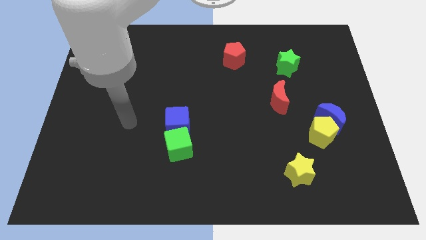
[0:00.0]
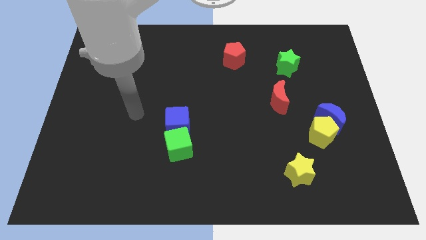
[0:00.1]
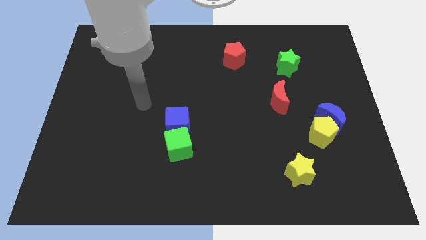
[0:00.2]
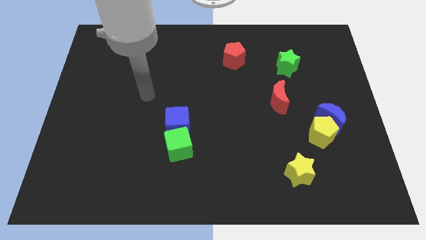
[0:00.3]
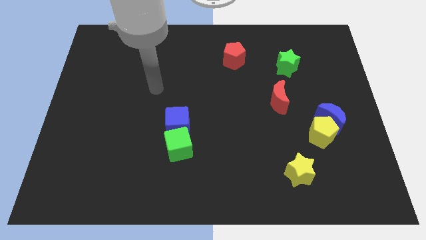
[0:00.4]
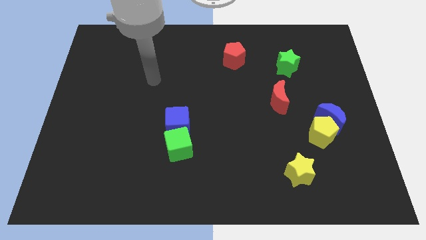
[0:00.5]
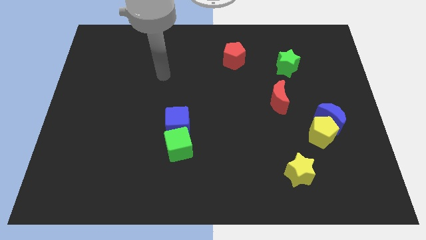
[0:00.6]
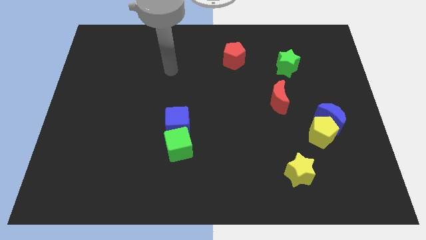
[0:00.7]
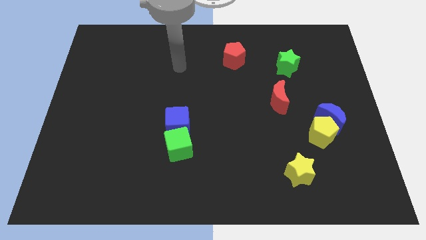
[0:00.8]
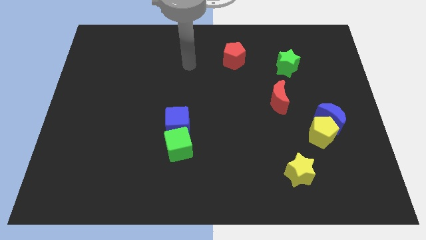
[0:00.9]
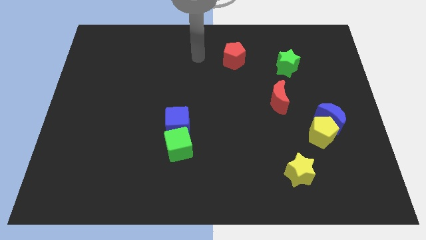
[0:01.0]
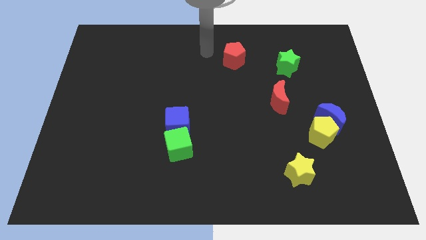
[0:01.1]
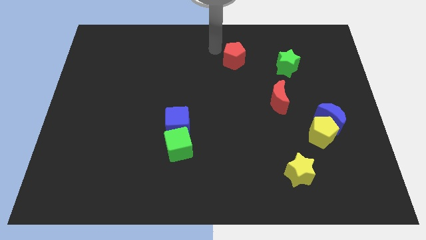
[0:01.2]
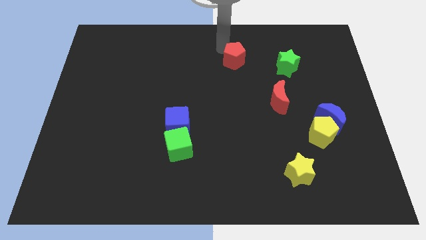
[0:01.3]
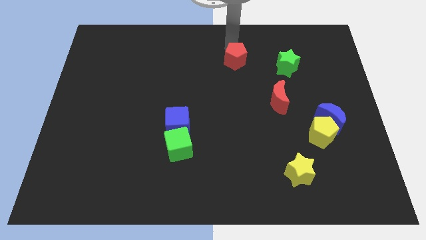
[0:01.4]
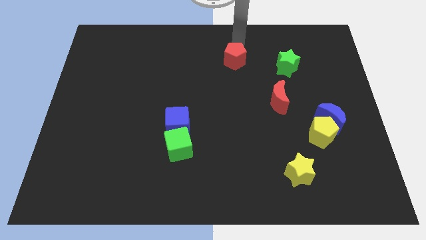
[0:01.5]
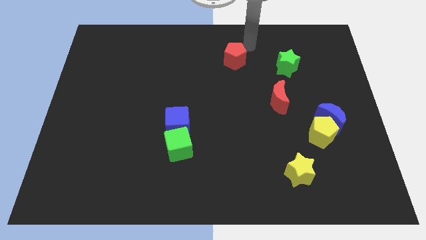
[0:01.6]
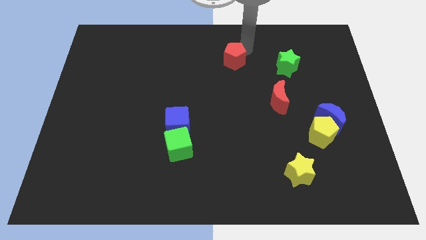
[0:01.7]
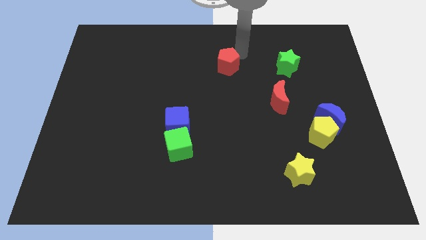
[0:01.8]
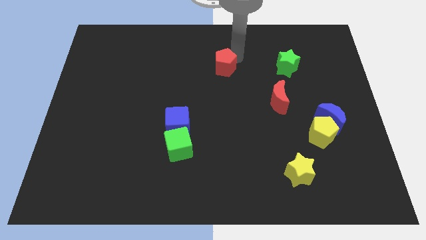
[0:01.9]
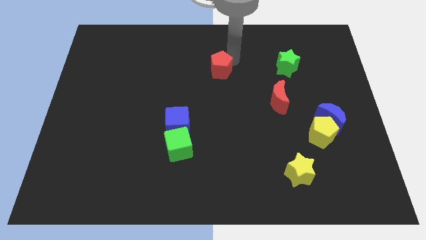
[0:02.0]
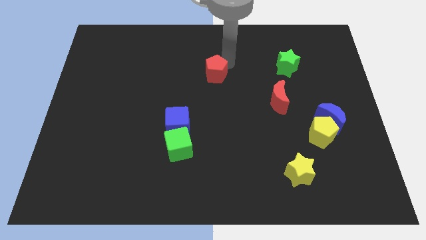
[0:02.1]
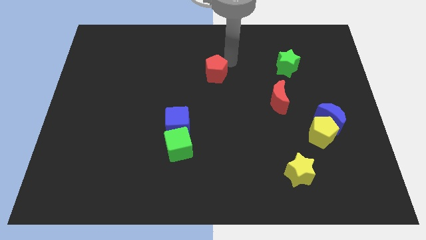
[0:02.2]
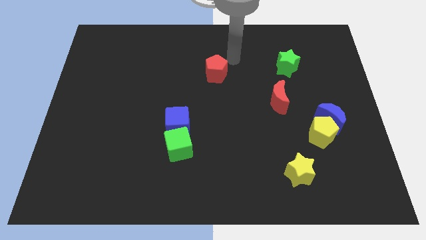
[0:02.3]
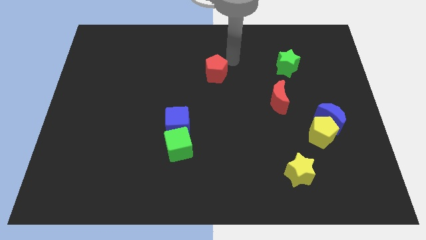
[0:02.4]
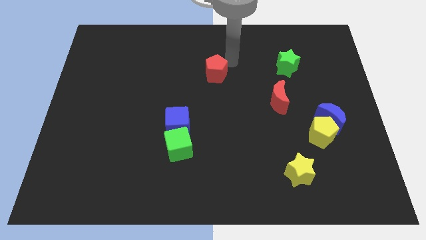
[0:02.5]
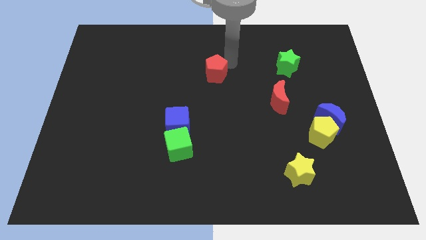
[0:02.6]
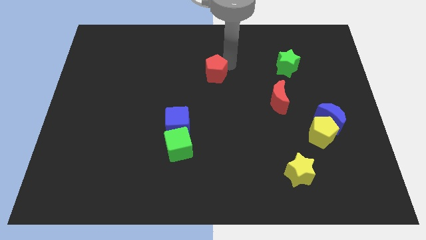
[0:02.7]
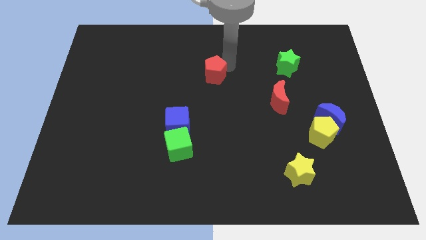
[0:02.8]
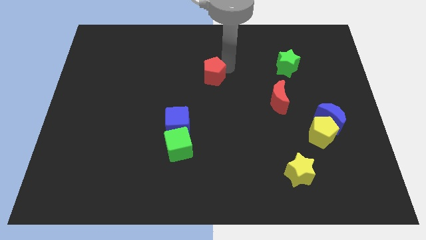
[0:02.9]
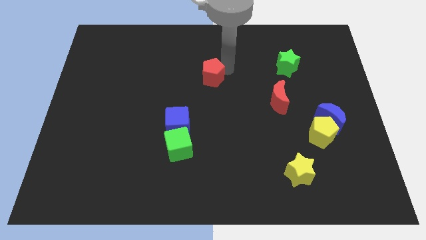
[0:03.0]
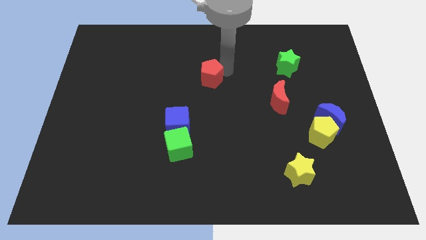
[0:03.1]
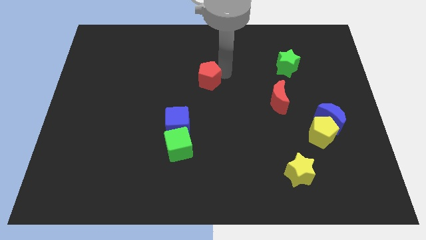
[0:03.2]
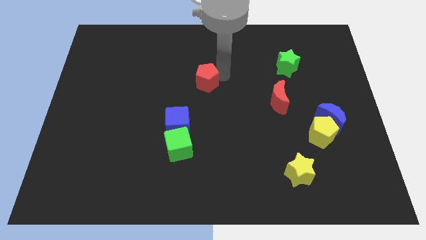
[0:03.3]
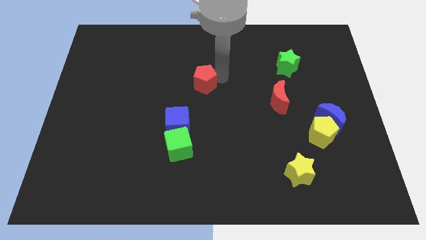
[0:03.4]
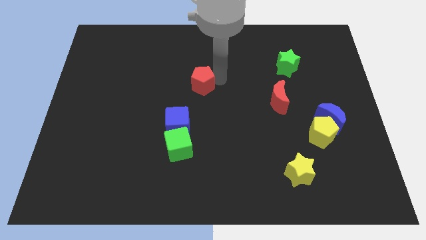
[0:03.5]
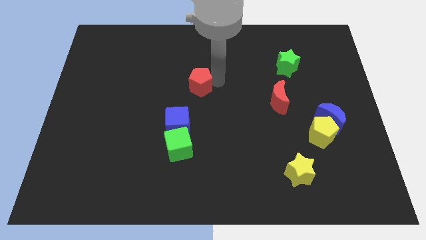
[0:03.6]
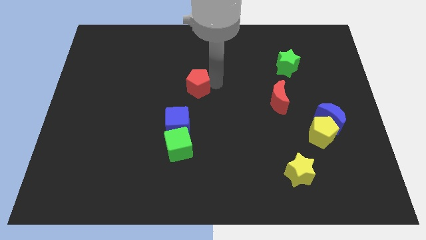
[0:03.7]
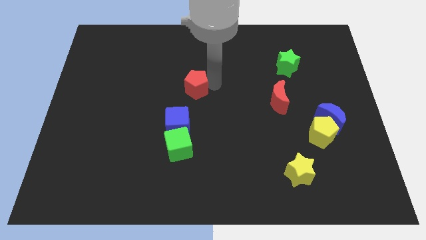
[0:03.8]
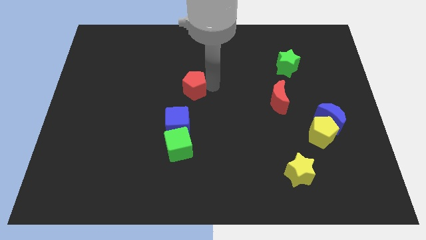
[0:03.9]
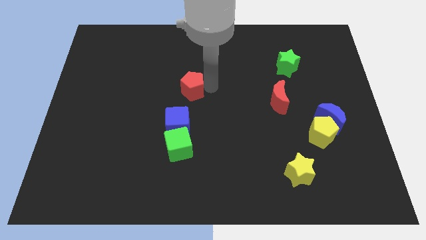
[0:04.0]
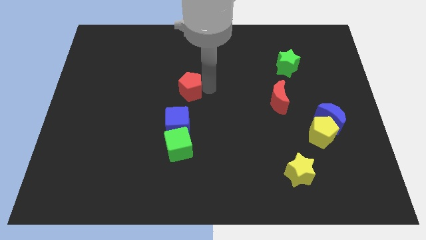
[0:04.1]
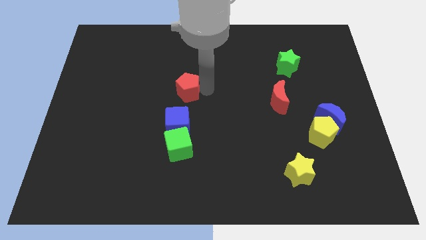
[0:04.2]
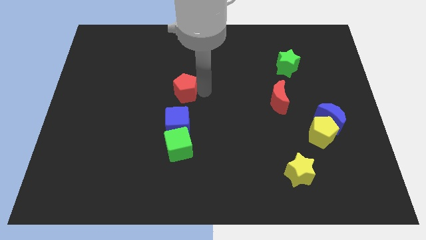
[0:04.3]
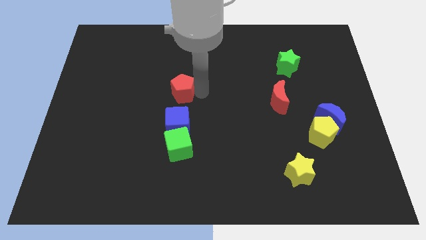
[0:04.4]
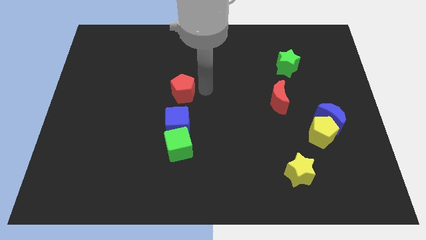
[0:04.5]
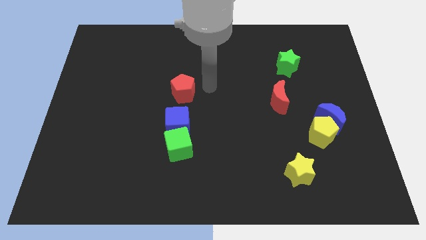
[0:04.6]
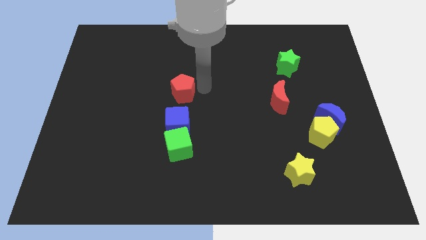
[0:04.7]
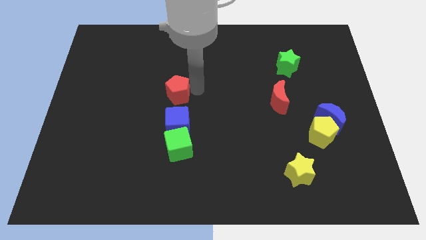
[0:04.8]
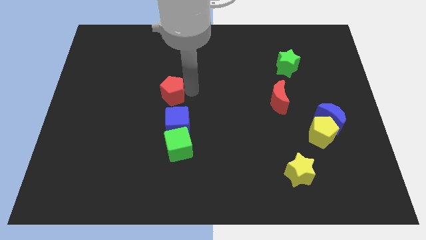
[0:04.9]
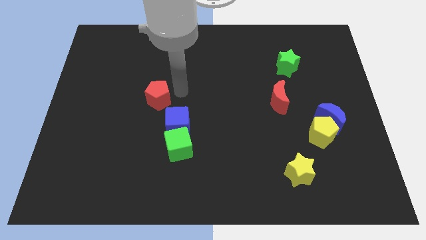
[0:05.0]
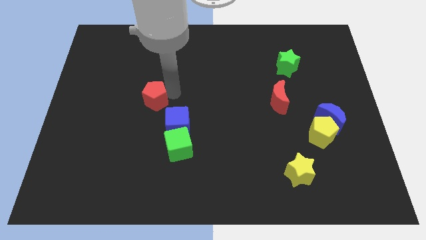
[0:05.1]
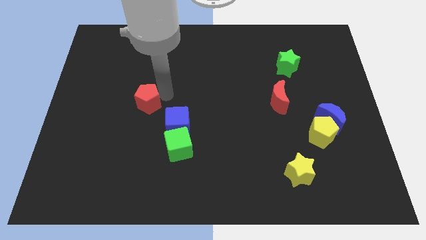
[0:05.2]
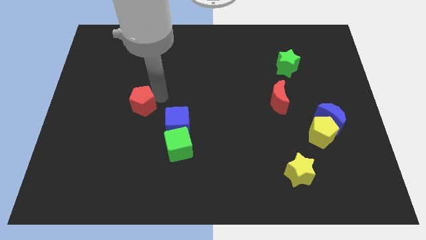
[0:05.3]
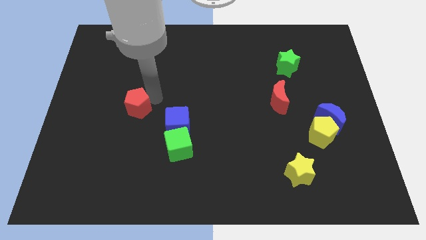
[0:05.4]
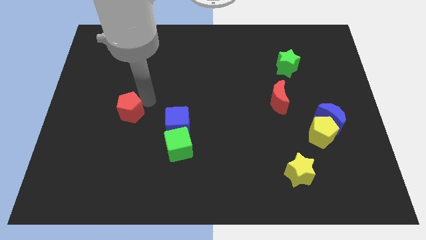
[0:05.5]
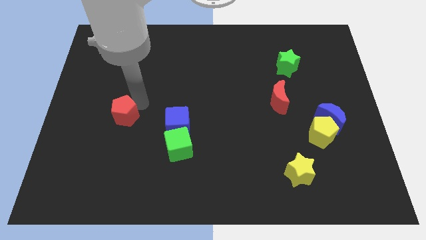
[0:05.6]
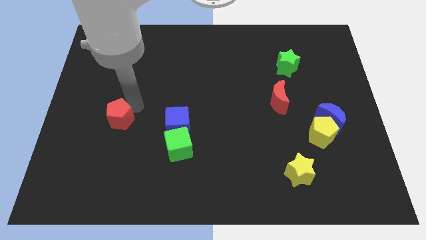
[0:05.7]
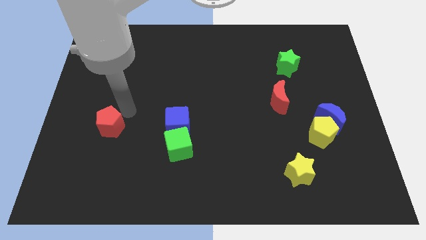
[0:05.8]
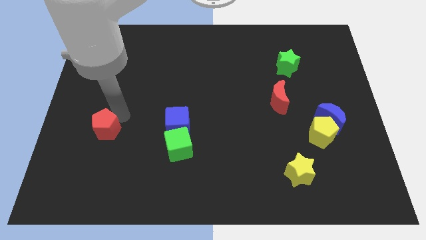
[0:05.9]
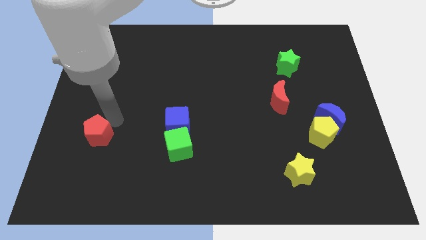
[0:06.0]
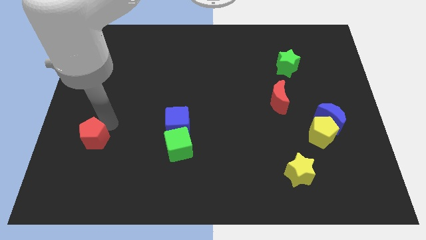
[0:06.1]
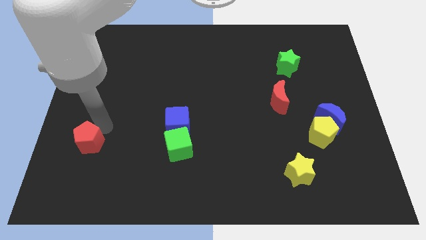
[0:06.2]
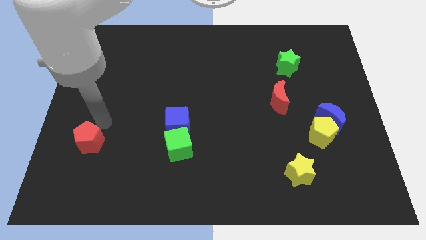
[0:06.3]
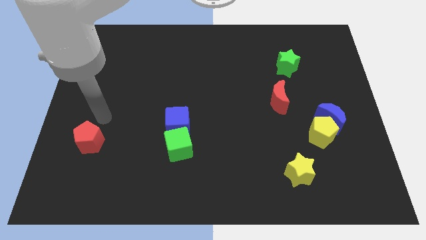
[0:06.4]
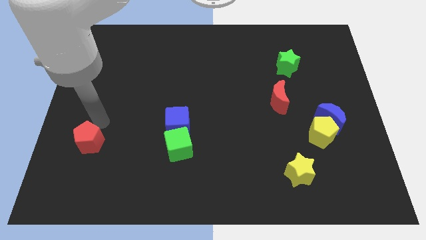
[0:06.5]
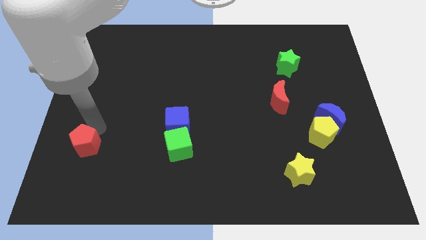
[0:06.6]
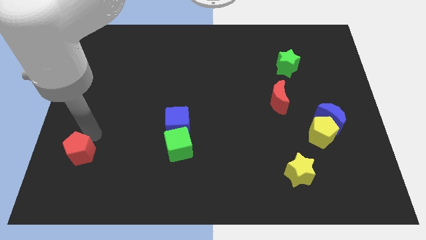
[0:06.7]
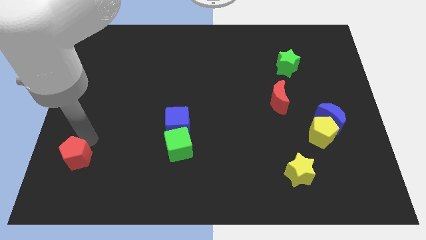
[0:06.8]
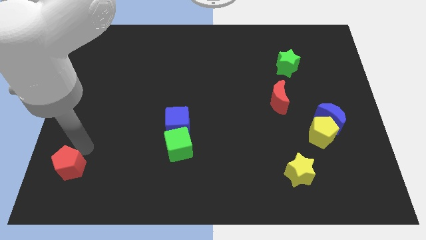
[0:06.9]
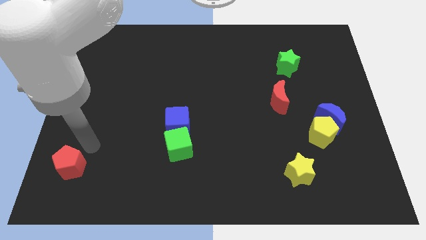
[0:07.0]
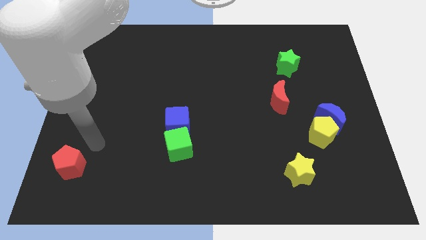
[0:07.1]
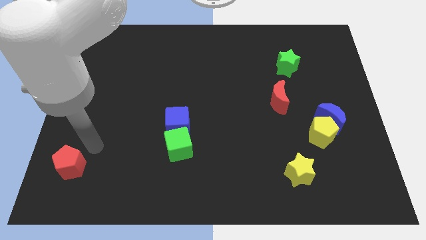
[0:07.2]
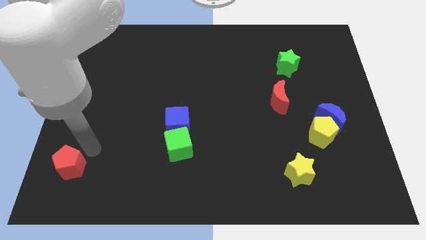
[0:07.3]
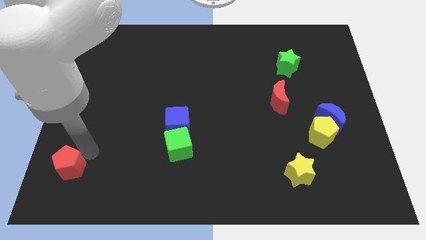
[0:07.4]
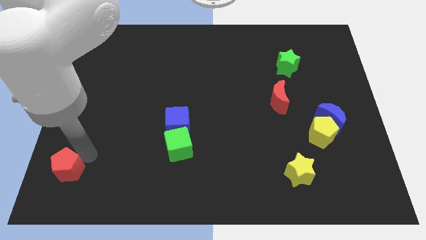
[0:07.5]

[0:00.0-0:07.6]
put the red pentagon to the bottom left of the board
